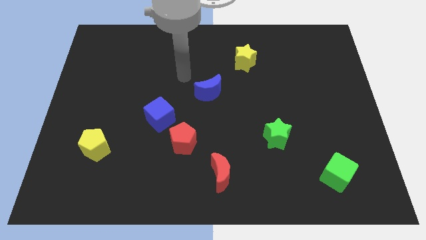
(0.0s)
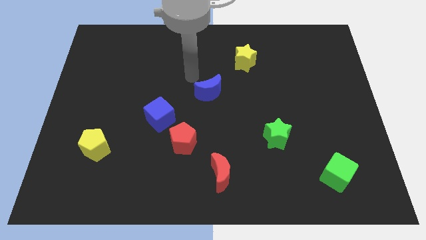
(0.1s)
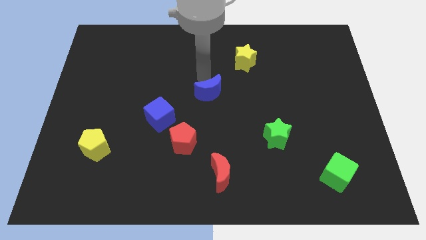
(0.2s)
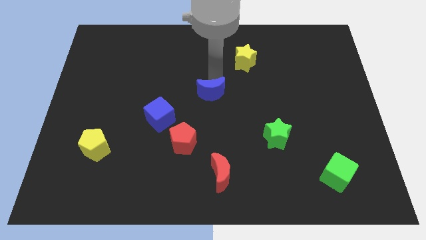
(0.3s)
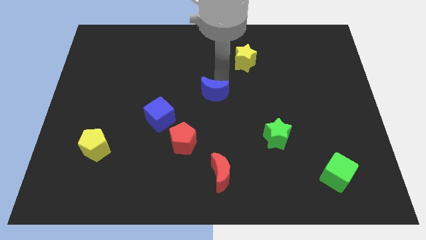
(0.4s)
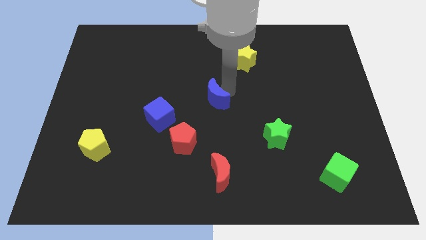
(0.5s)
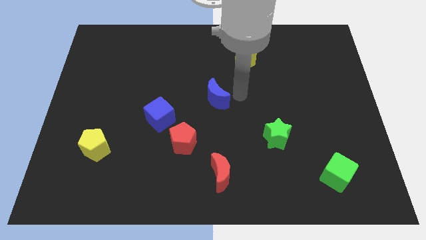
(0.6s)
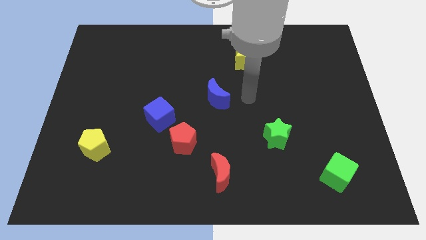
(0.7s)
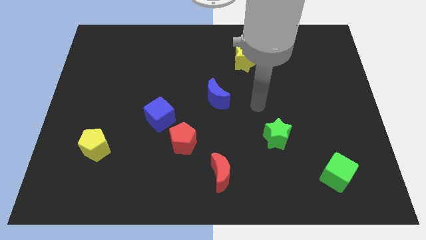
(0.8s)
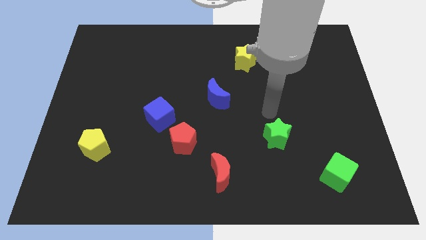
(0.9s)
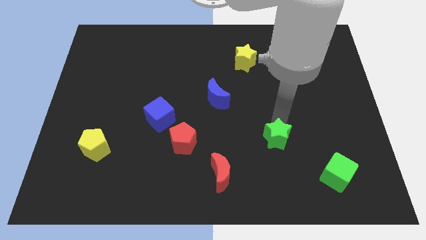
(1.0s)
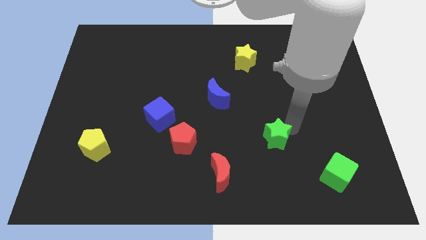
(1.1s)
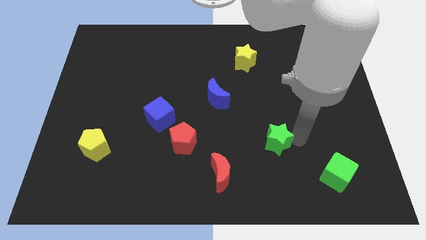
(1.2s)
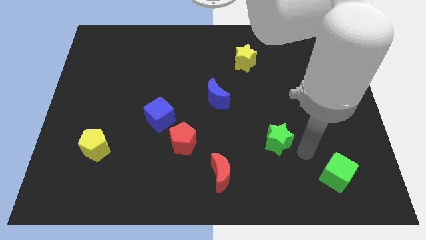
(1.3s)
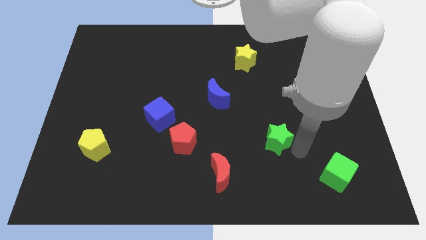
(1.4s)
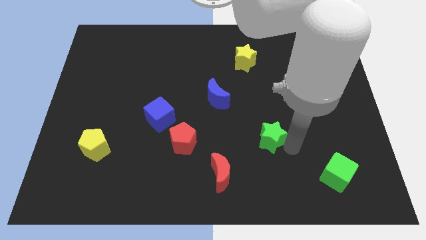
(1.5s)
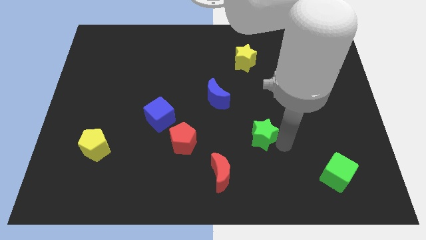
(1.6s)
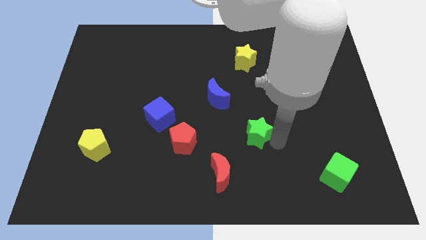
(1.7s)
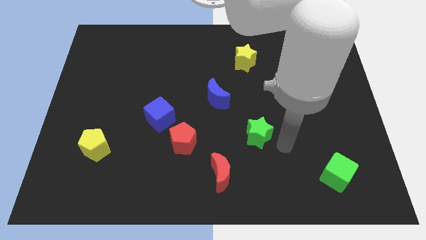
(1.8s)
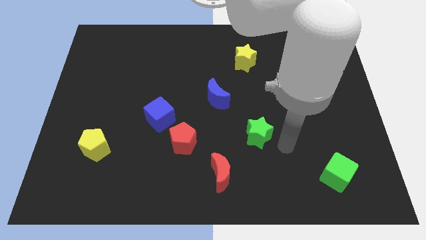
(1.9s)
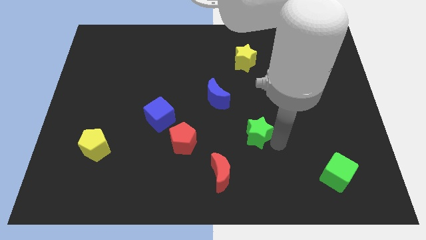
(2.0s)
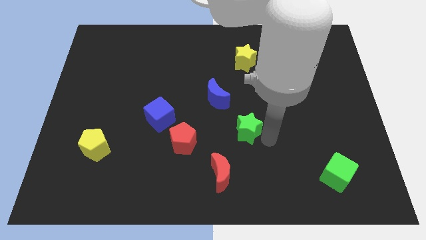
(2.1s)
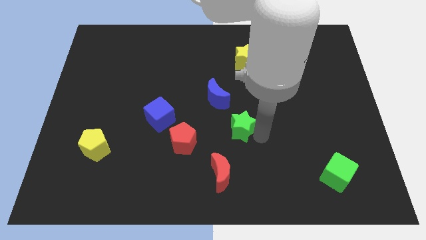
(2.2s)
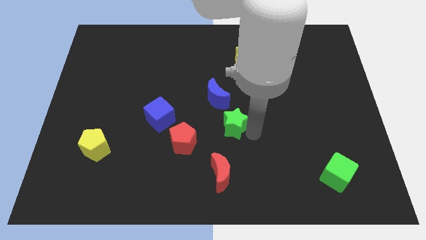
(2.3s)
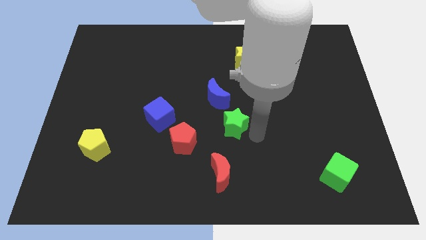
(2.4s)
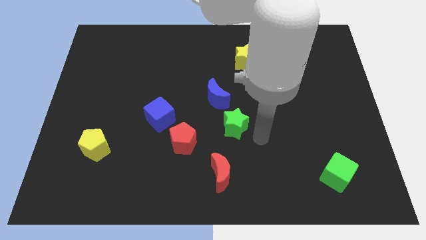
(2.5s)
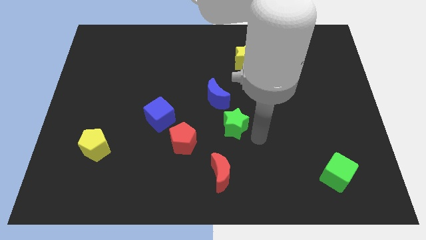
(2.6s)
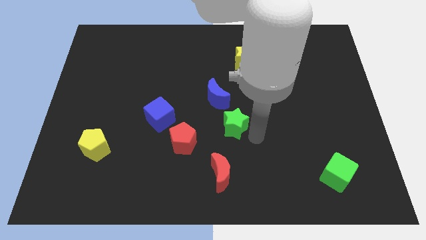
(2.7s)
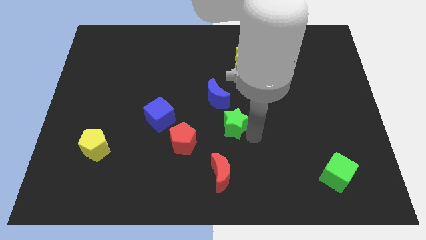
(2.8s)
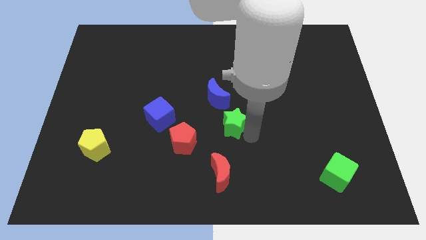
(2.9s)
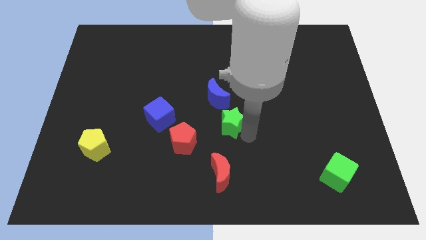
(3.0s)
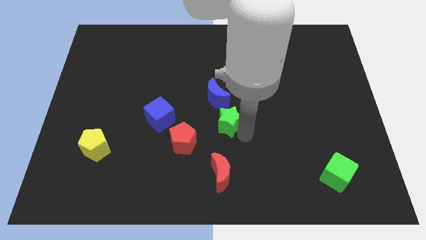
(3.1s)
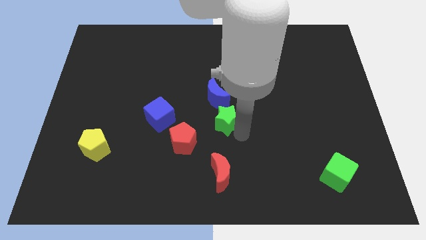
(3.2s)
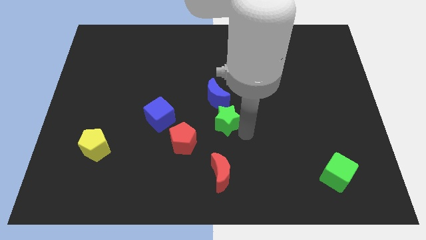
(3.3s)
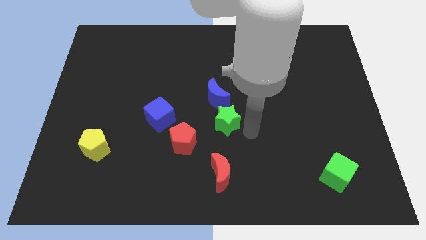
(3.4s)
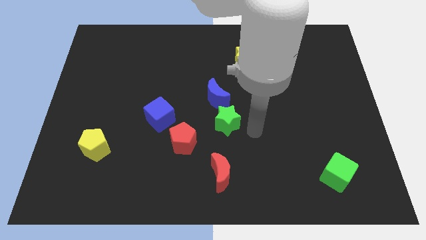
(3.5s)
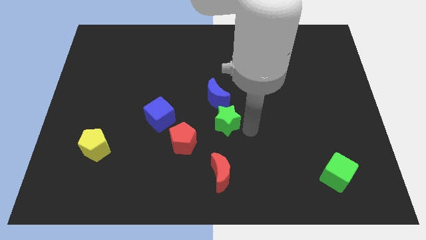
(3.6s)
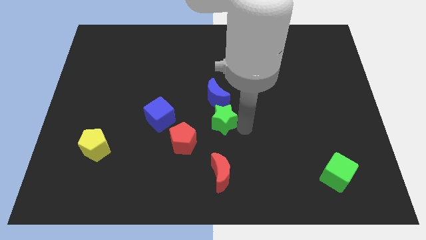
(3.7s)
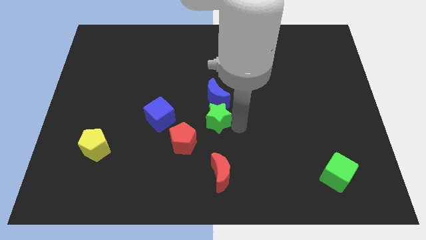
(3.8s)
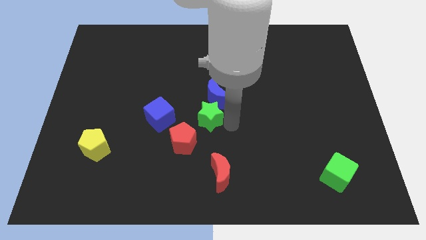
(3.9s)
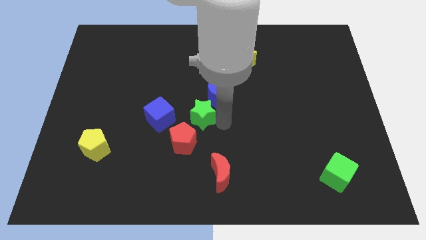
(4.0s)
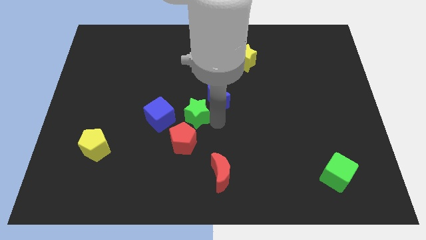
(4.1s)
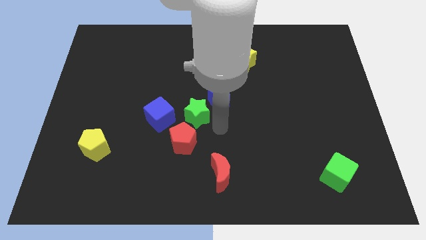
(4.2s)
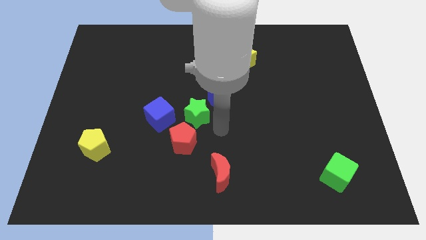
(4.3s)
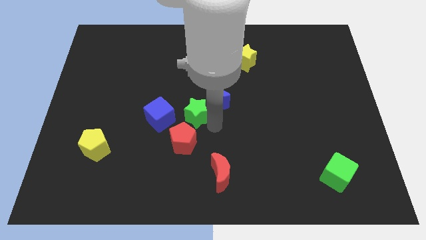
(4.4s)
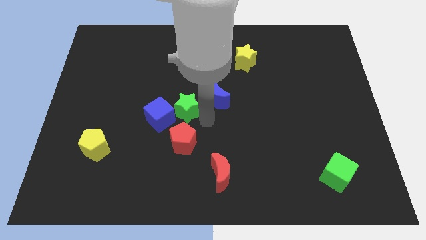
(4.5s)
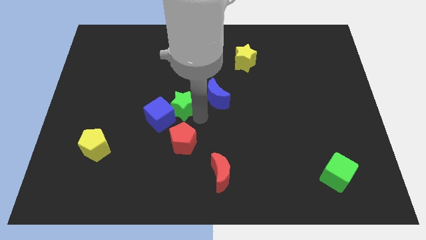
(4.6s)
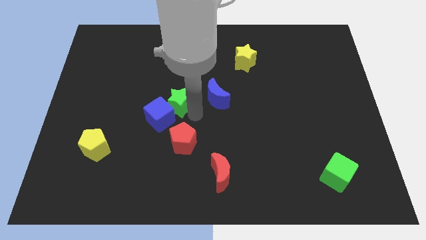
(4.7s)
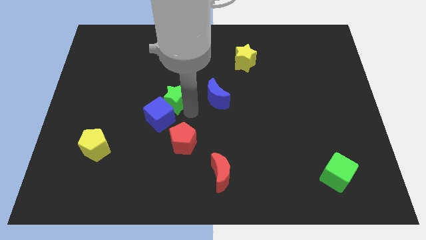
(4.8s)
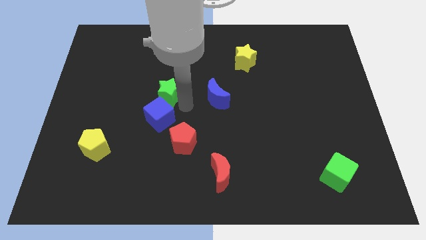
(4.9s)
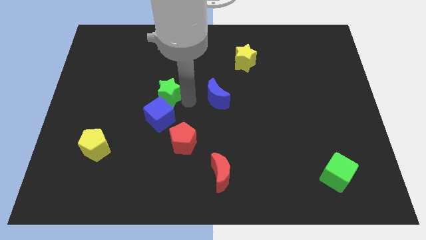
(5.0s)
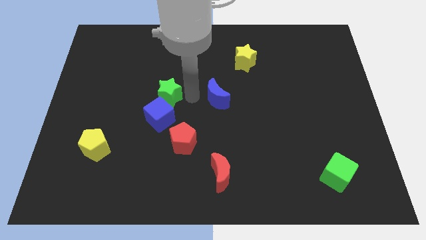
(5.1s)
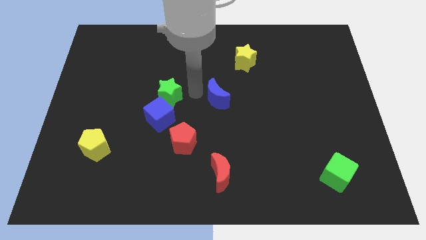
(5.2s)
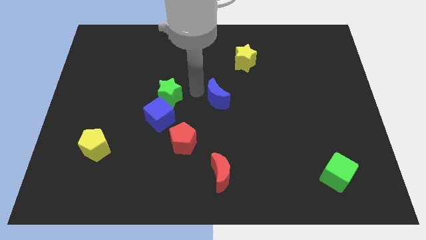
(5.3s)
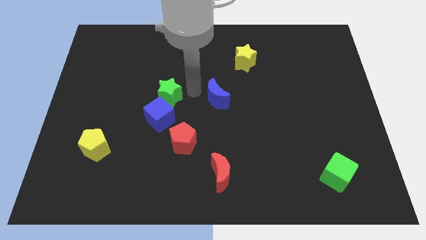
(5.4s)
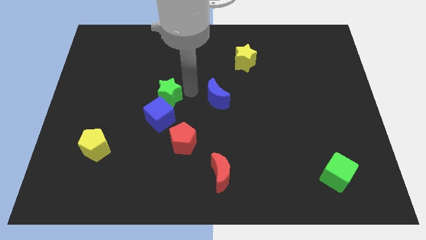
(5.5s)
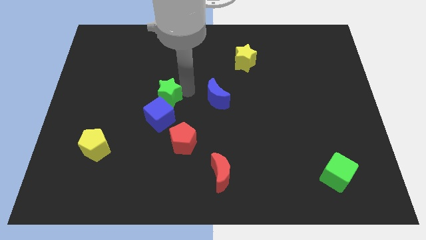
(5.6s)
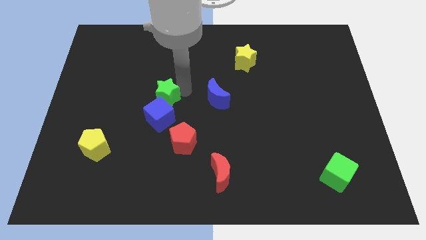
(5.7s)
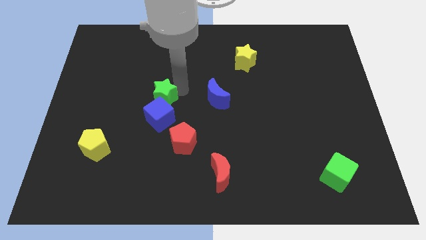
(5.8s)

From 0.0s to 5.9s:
slide the green star to the top left of the blue cube

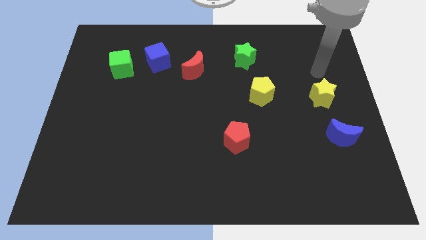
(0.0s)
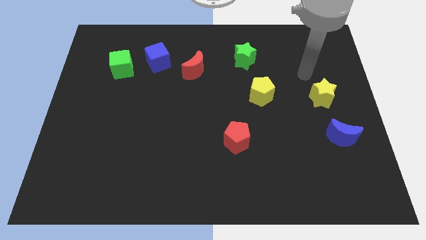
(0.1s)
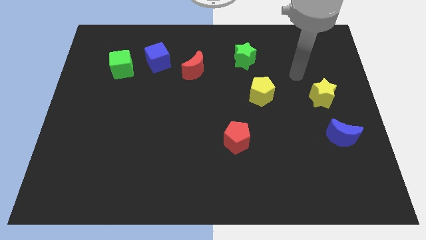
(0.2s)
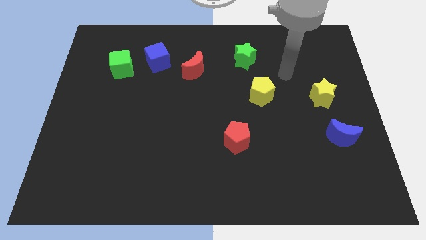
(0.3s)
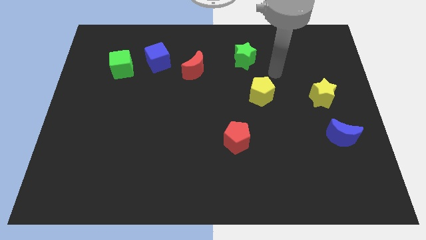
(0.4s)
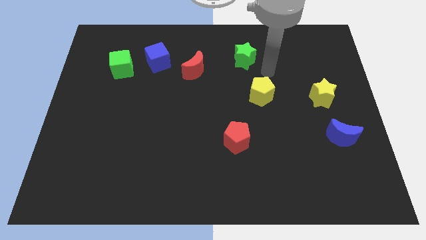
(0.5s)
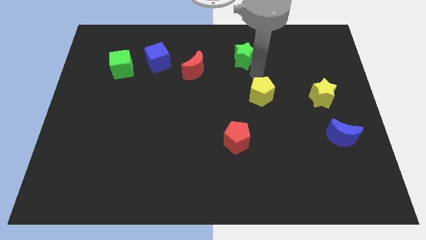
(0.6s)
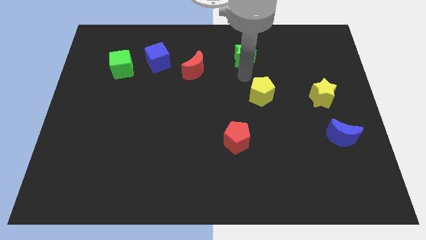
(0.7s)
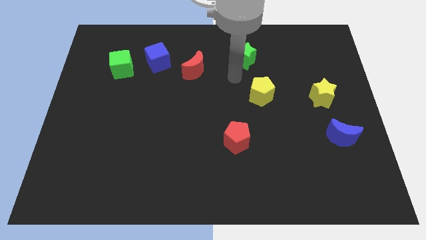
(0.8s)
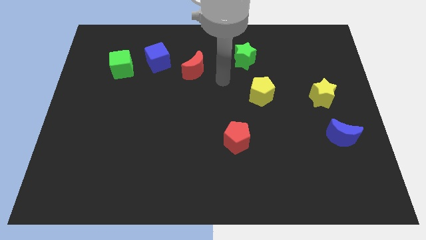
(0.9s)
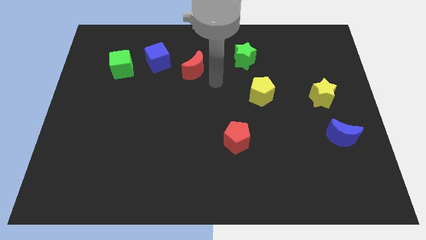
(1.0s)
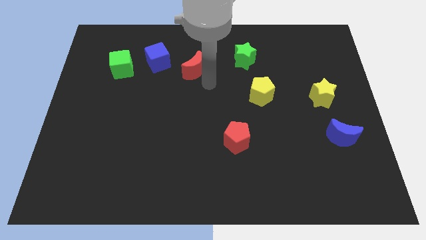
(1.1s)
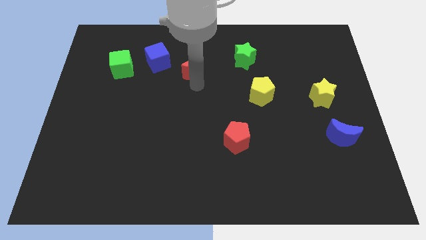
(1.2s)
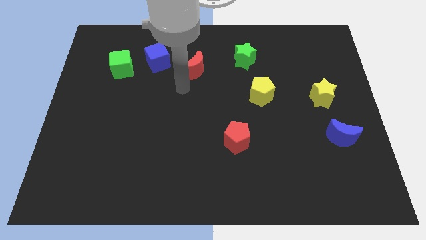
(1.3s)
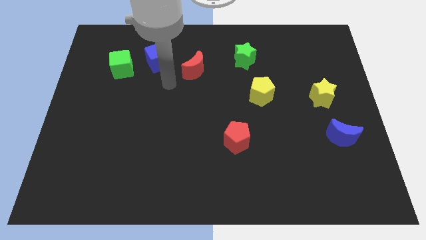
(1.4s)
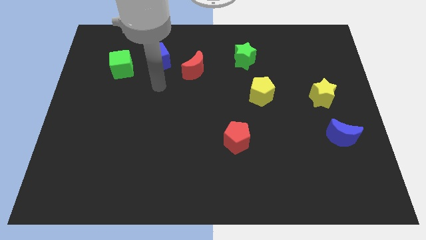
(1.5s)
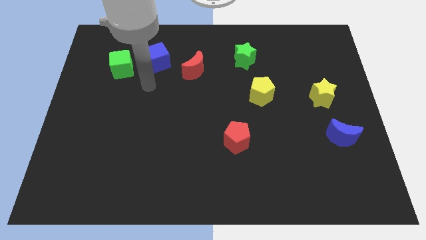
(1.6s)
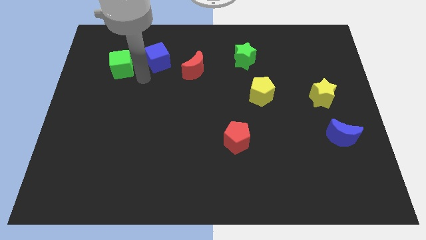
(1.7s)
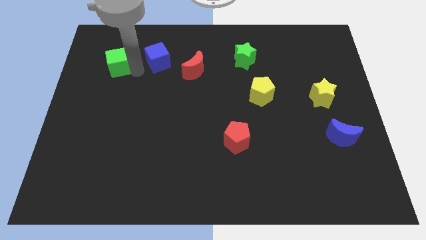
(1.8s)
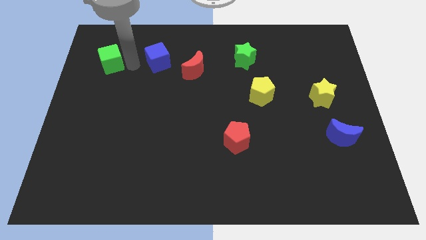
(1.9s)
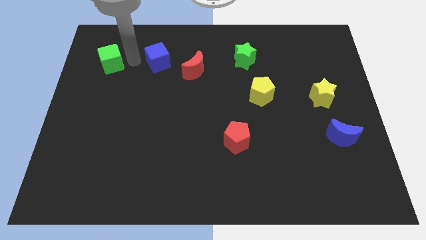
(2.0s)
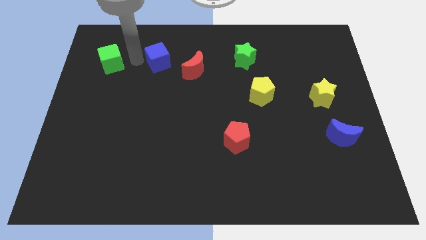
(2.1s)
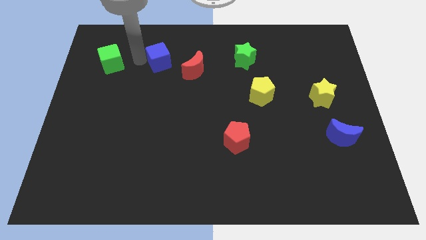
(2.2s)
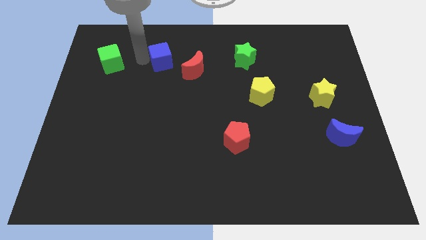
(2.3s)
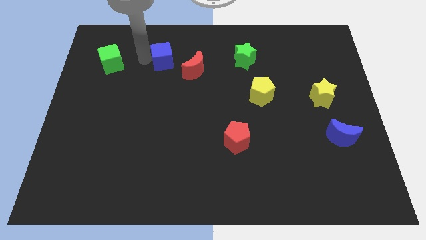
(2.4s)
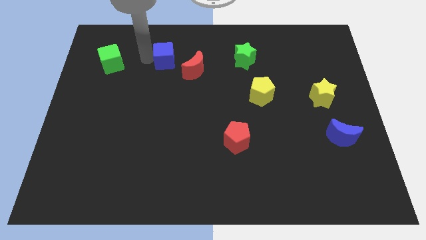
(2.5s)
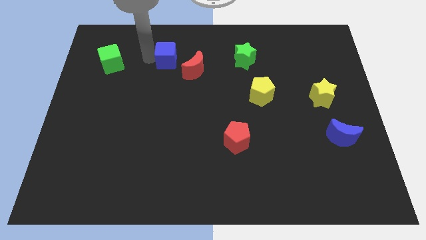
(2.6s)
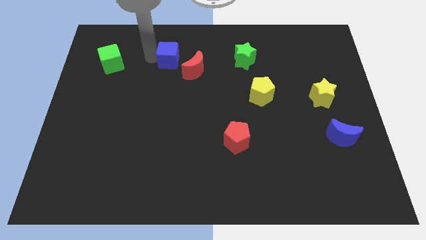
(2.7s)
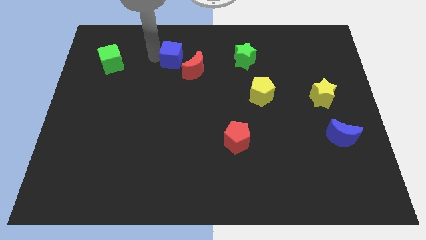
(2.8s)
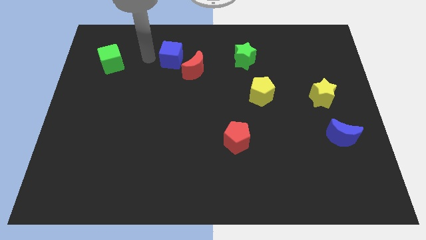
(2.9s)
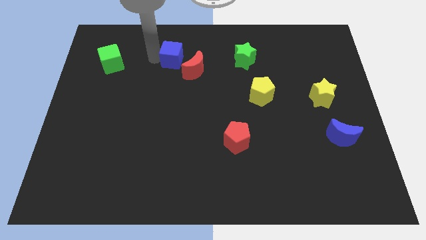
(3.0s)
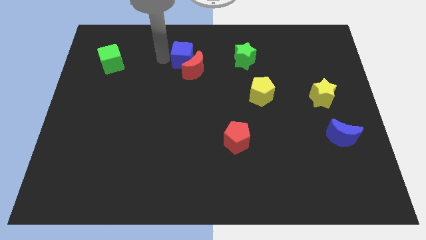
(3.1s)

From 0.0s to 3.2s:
push the blue cube to the left of the green star

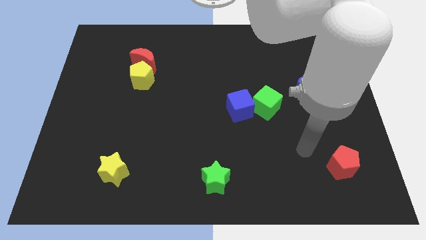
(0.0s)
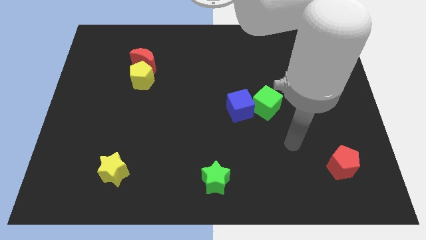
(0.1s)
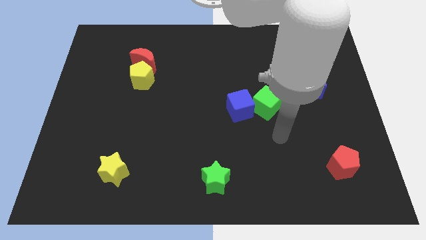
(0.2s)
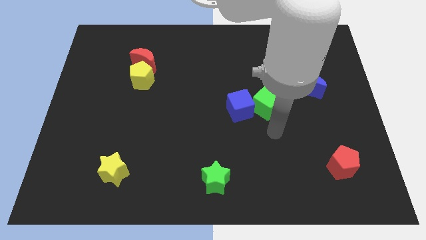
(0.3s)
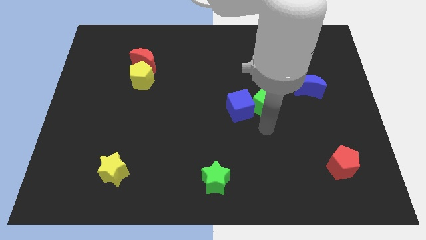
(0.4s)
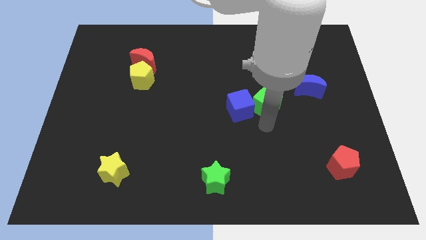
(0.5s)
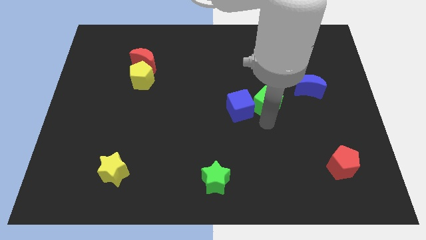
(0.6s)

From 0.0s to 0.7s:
slide the green cube to the left of the blue moon
